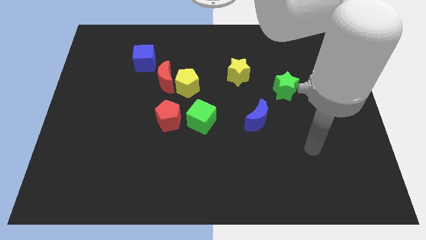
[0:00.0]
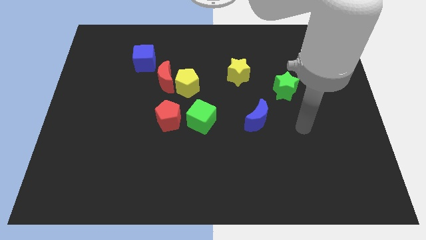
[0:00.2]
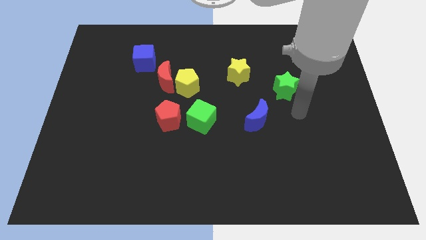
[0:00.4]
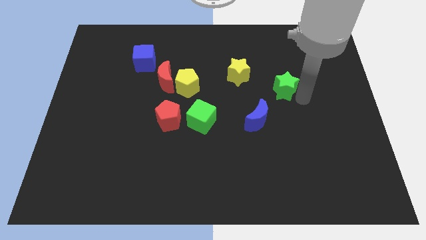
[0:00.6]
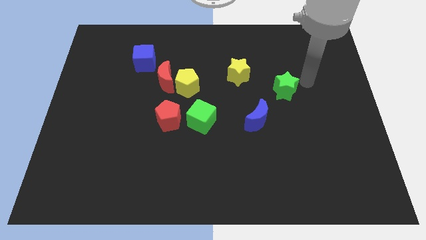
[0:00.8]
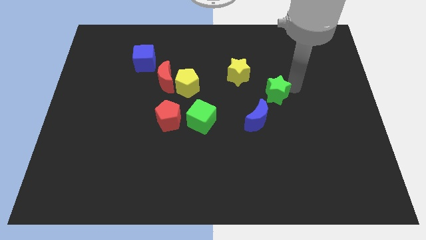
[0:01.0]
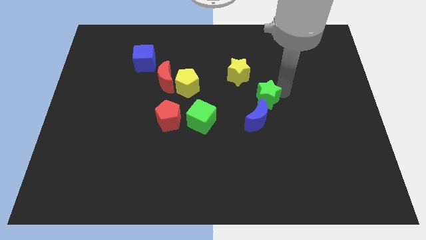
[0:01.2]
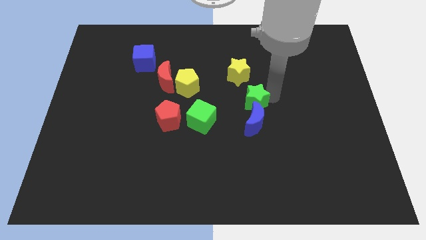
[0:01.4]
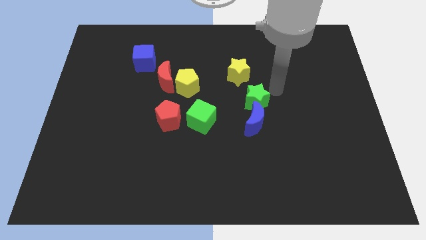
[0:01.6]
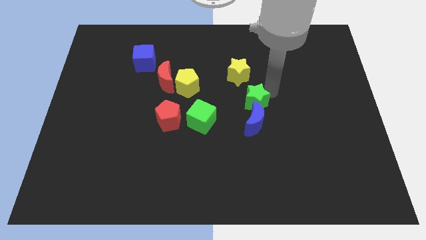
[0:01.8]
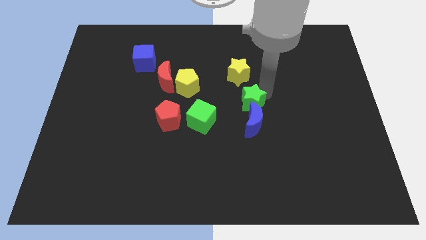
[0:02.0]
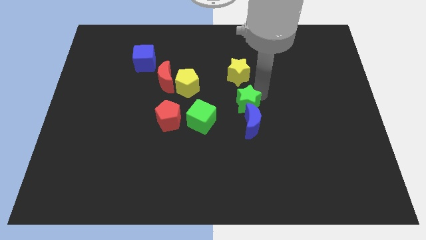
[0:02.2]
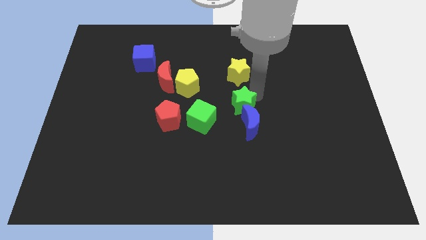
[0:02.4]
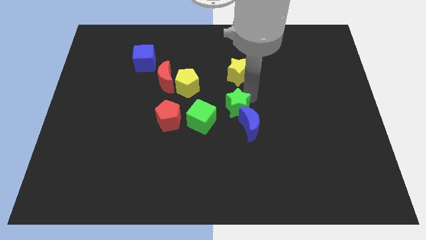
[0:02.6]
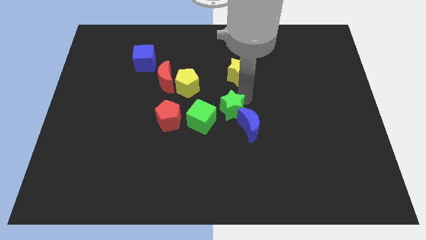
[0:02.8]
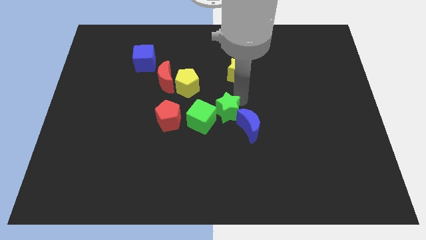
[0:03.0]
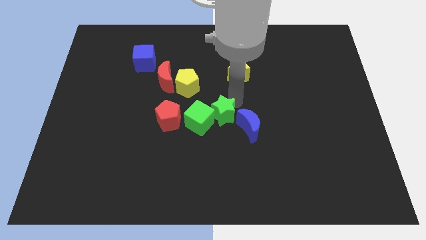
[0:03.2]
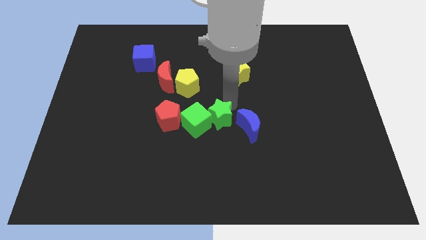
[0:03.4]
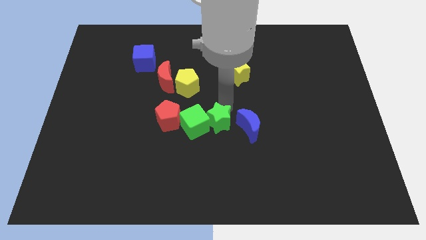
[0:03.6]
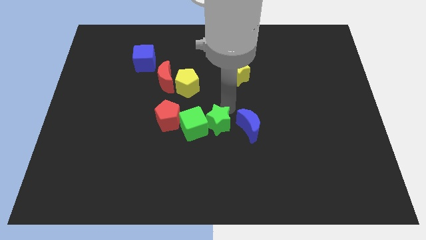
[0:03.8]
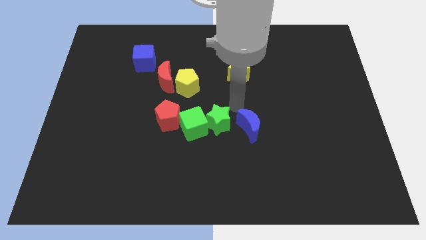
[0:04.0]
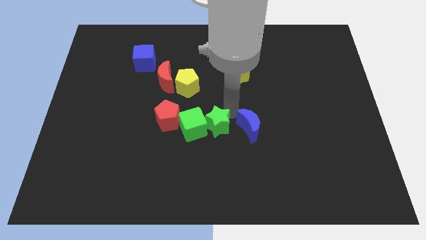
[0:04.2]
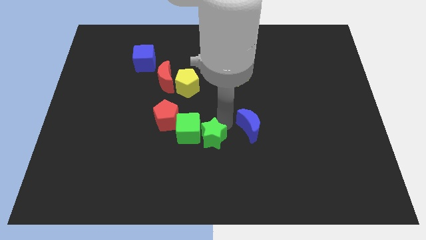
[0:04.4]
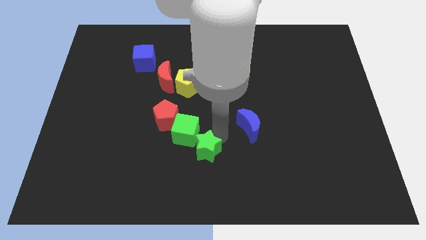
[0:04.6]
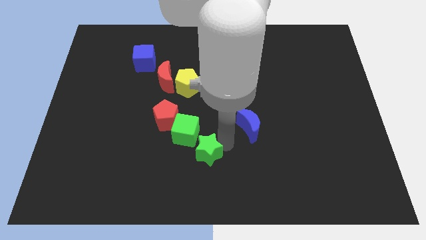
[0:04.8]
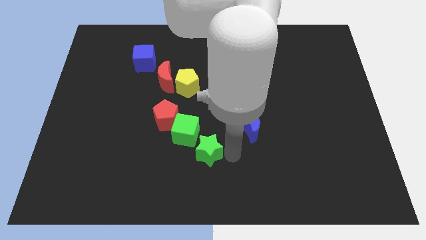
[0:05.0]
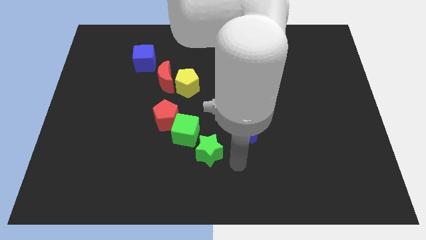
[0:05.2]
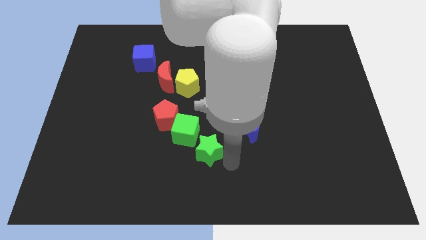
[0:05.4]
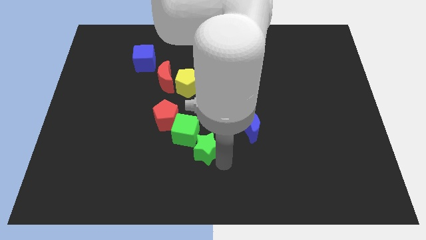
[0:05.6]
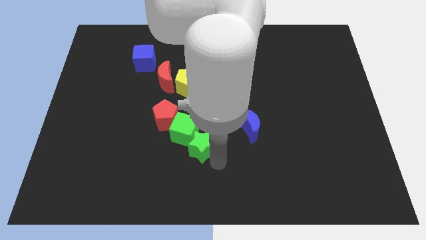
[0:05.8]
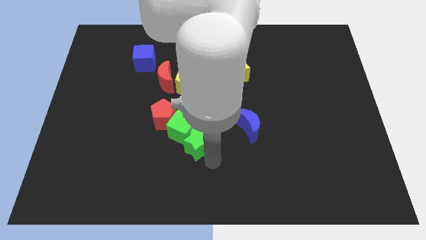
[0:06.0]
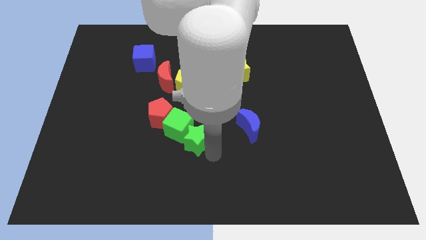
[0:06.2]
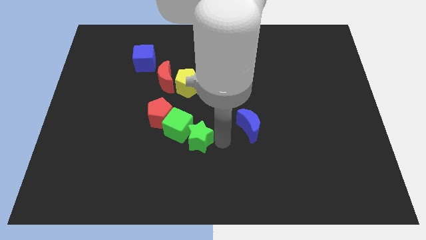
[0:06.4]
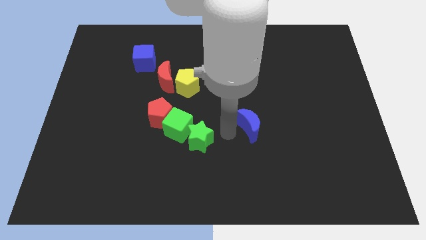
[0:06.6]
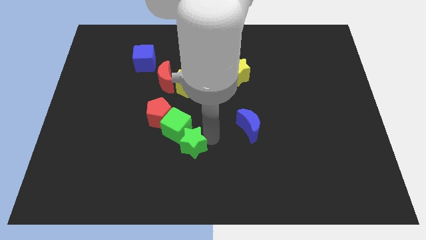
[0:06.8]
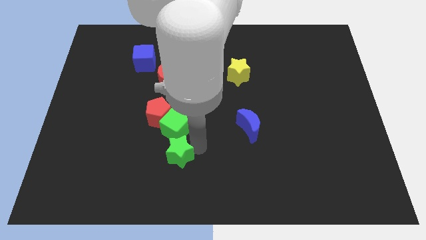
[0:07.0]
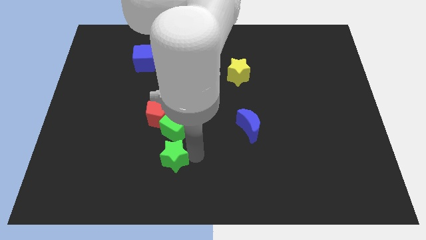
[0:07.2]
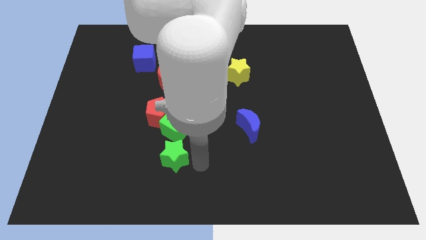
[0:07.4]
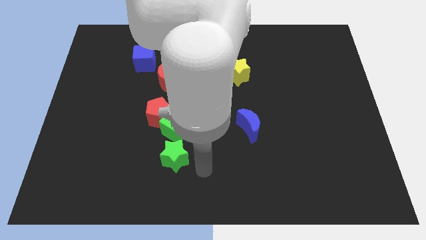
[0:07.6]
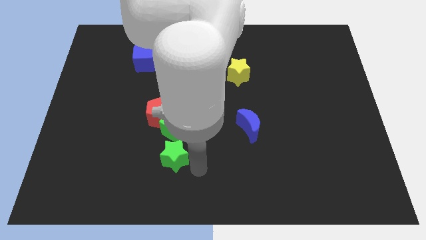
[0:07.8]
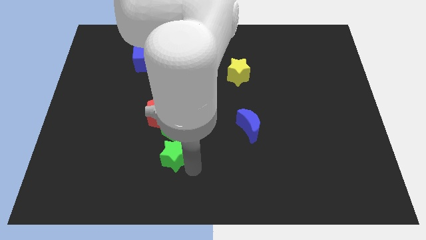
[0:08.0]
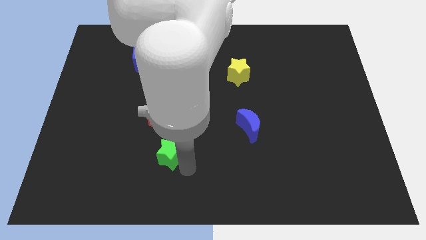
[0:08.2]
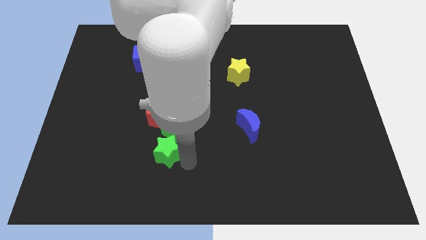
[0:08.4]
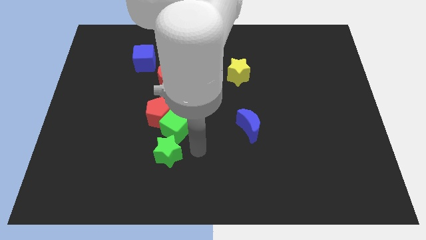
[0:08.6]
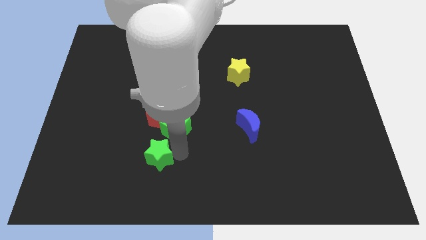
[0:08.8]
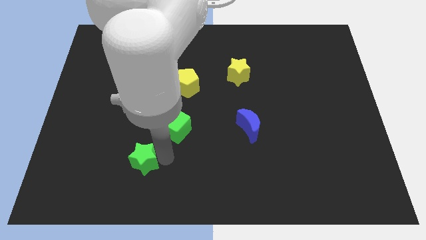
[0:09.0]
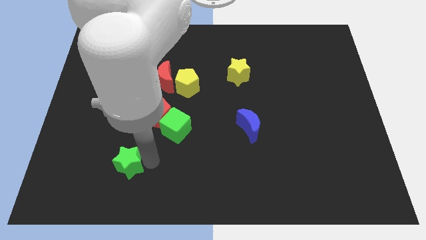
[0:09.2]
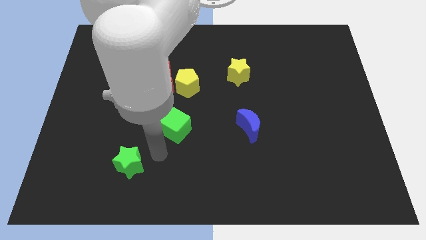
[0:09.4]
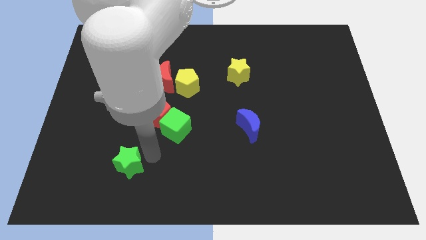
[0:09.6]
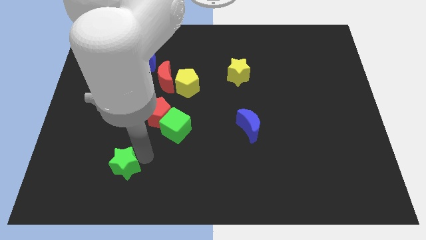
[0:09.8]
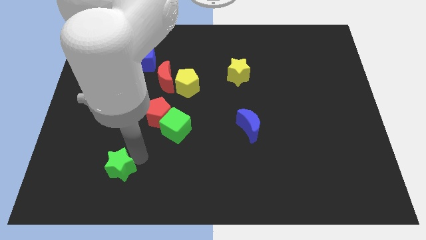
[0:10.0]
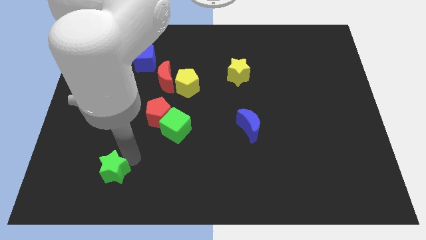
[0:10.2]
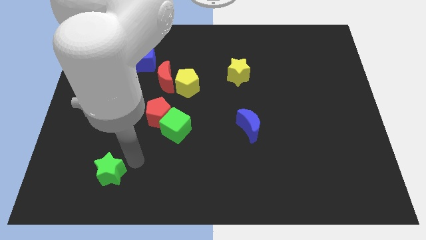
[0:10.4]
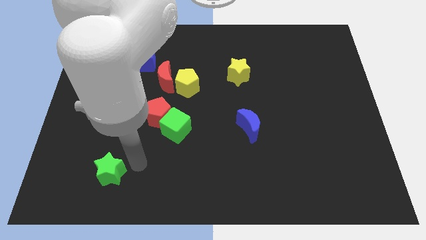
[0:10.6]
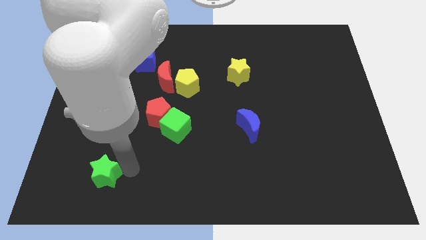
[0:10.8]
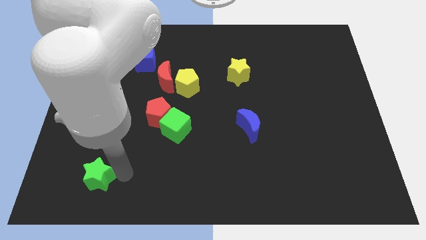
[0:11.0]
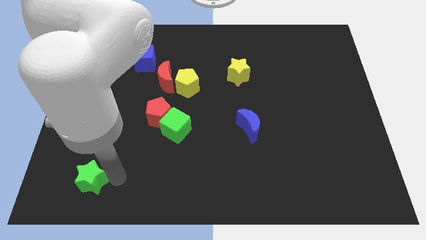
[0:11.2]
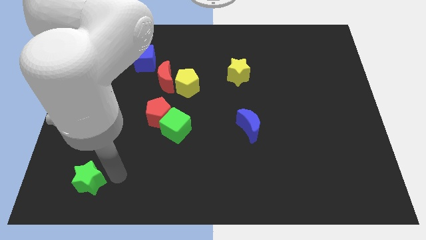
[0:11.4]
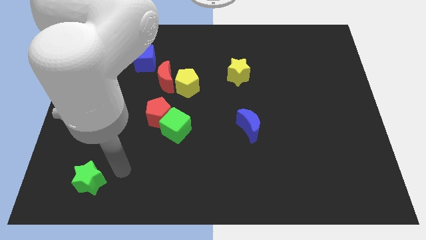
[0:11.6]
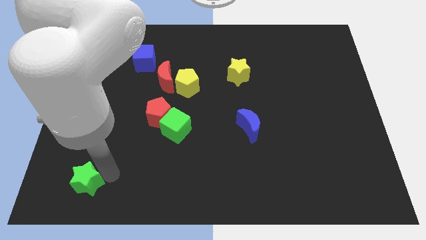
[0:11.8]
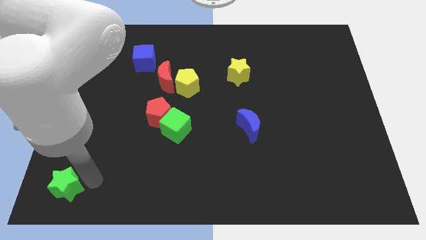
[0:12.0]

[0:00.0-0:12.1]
move the green star to the bottom left corner

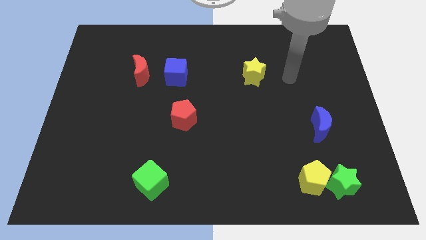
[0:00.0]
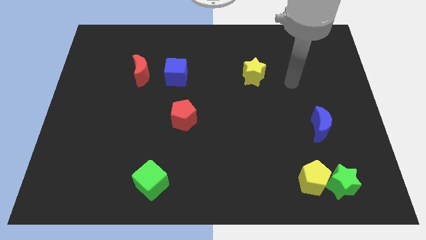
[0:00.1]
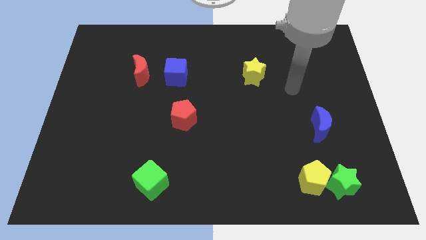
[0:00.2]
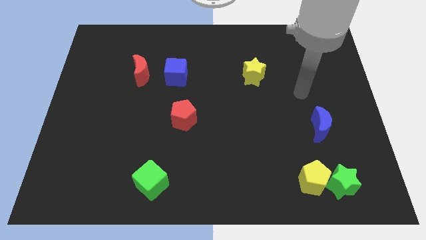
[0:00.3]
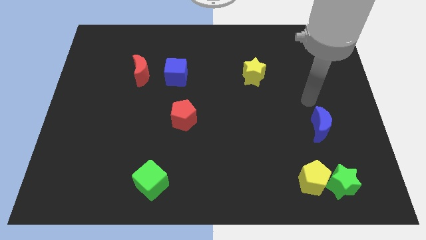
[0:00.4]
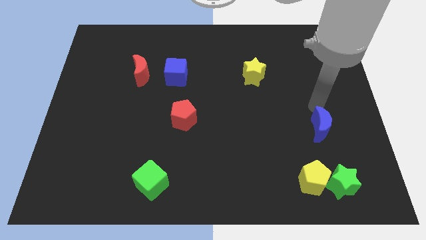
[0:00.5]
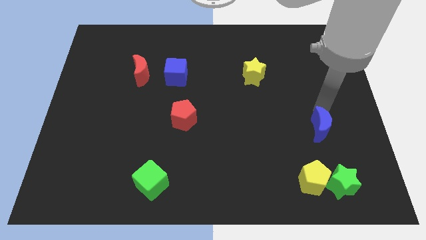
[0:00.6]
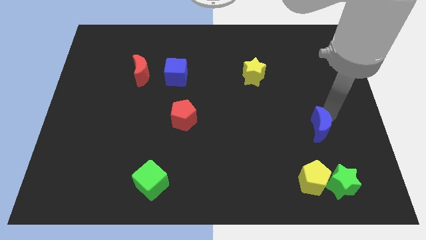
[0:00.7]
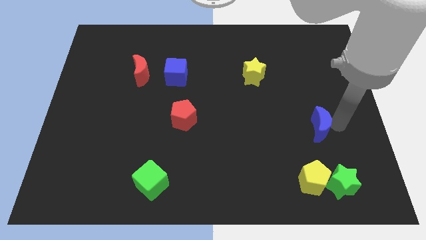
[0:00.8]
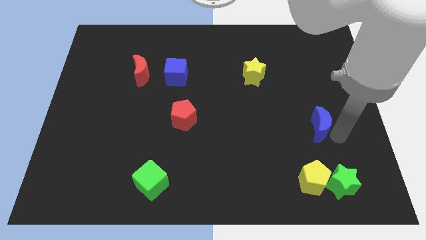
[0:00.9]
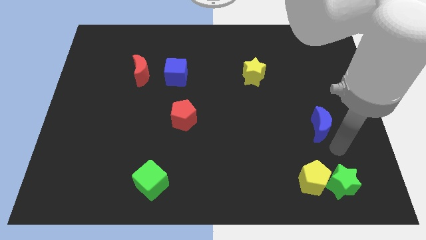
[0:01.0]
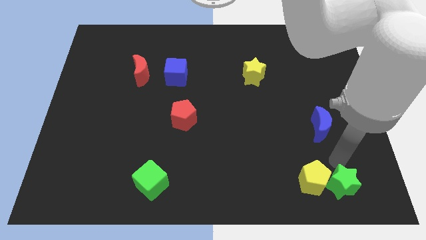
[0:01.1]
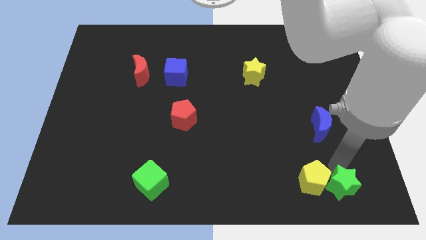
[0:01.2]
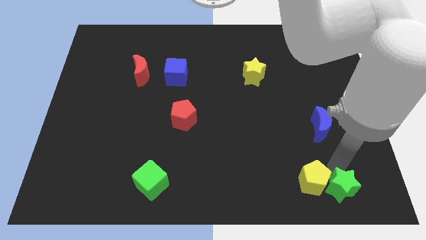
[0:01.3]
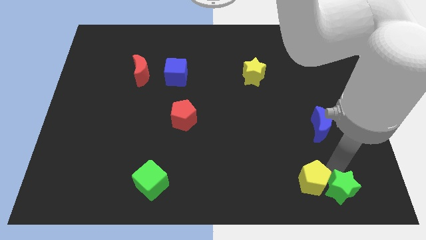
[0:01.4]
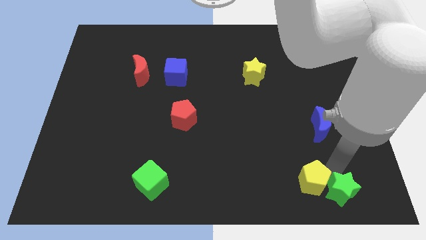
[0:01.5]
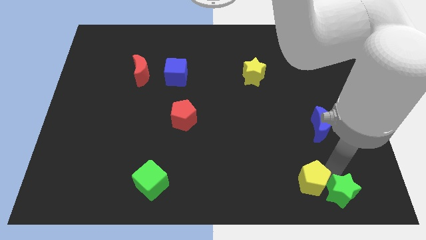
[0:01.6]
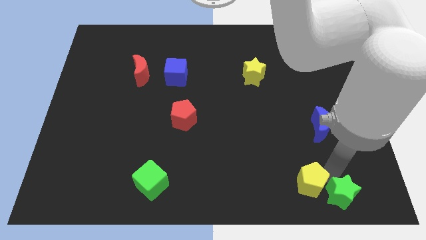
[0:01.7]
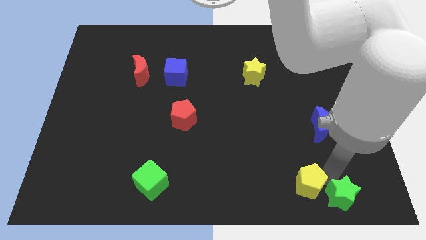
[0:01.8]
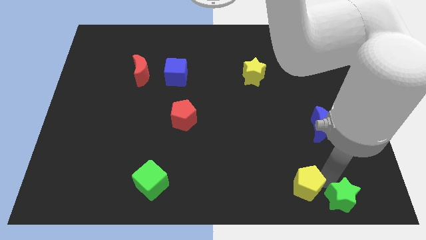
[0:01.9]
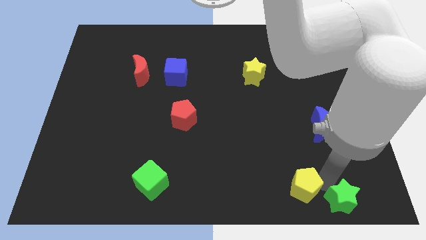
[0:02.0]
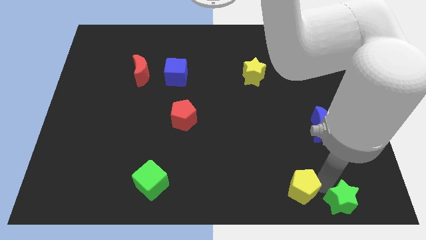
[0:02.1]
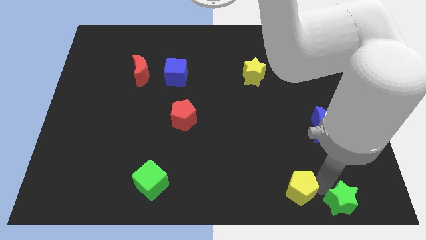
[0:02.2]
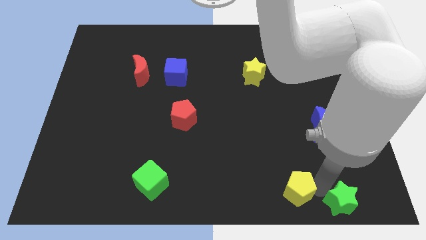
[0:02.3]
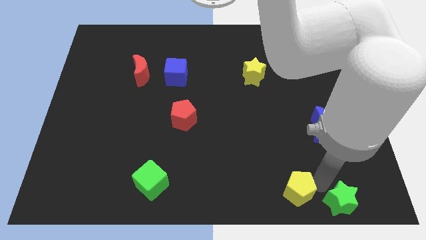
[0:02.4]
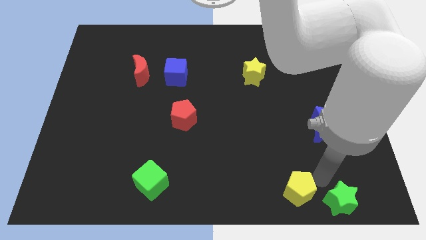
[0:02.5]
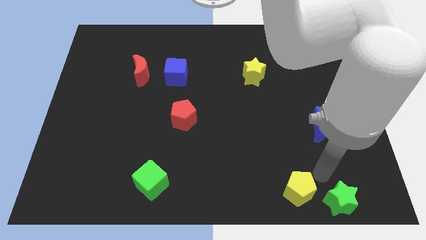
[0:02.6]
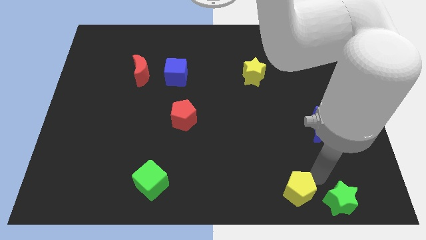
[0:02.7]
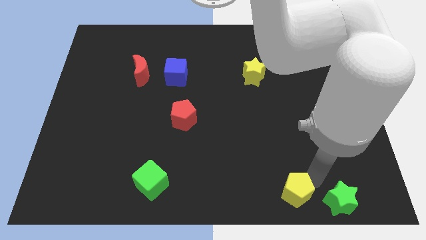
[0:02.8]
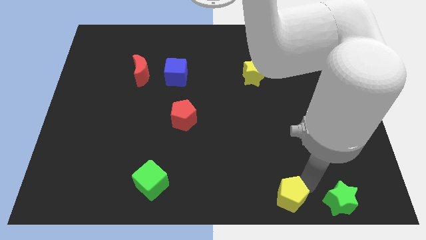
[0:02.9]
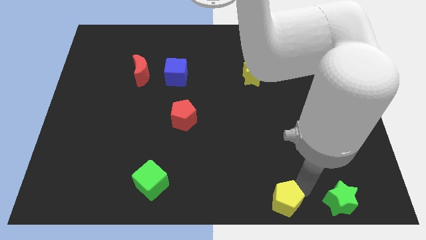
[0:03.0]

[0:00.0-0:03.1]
push the yellow pentagon to the bottom side
